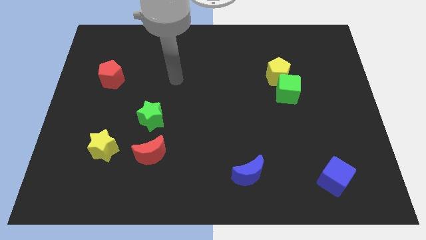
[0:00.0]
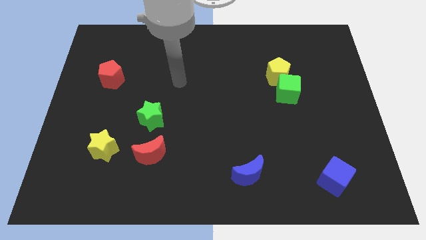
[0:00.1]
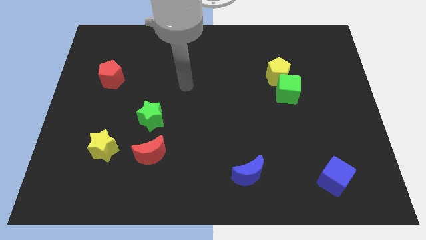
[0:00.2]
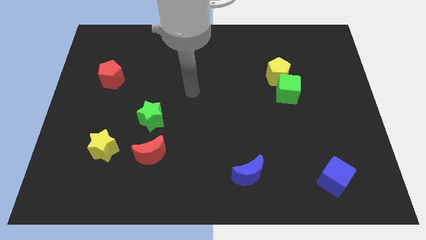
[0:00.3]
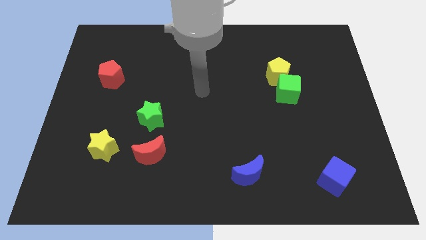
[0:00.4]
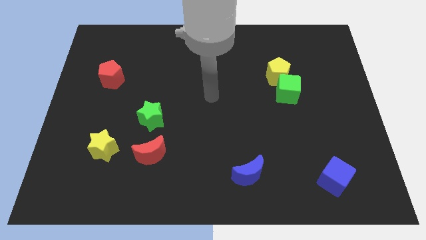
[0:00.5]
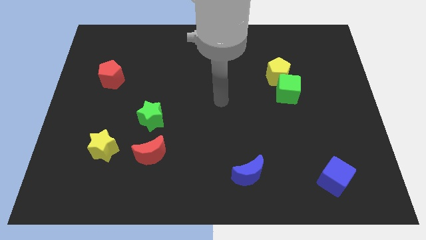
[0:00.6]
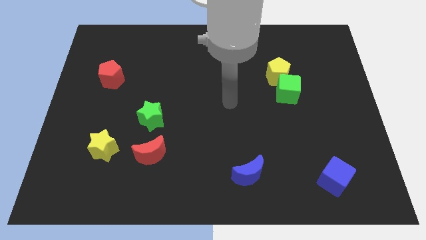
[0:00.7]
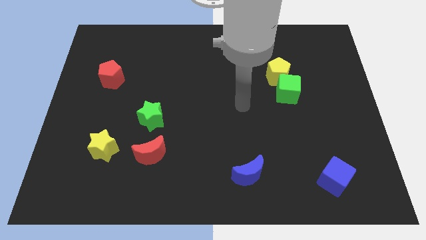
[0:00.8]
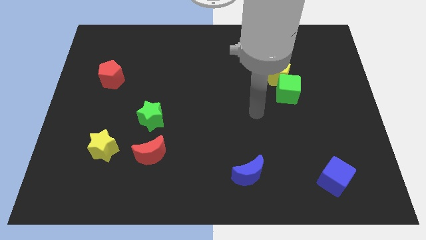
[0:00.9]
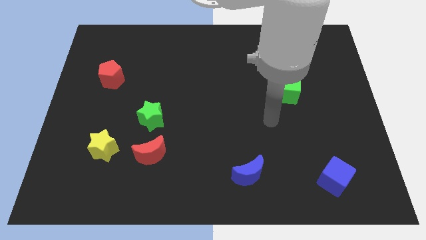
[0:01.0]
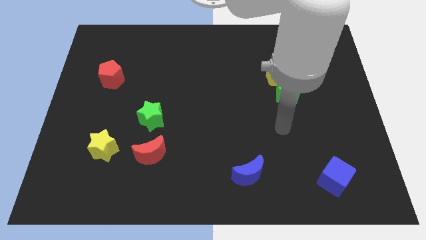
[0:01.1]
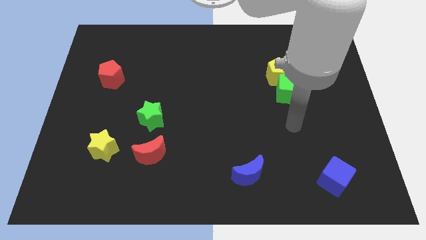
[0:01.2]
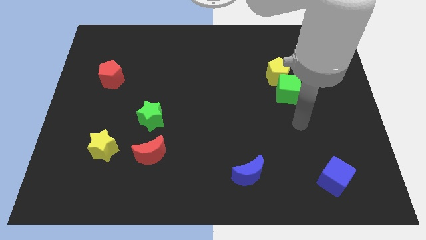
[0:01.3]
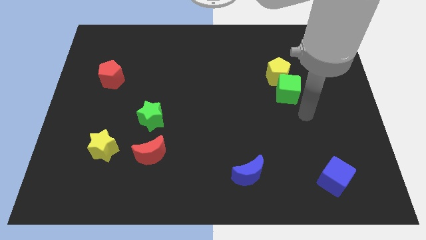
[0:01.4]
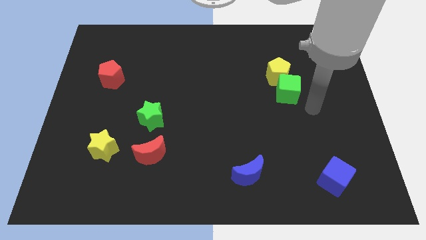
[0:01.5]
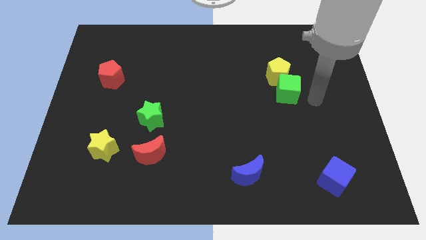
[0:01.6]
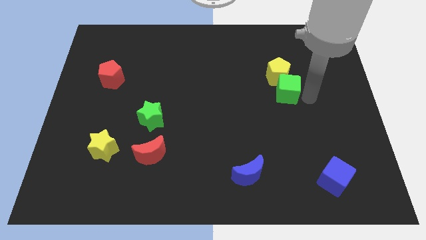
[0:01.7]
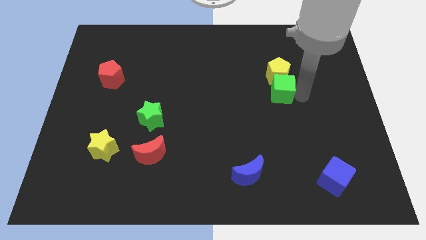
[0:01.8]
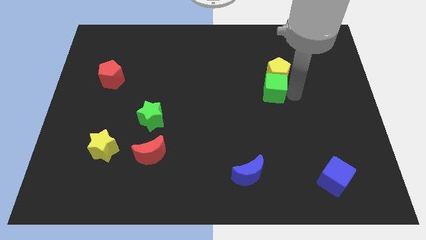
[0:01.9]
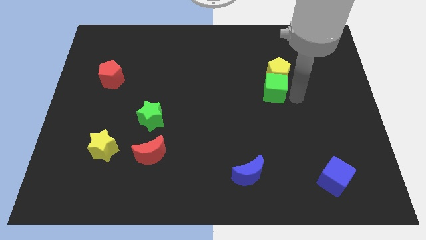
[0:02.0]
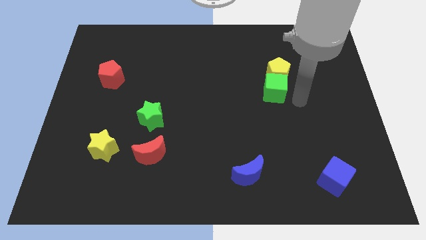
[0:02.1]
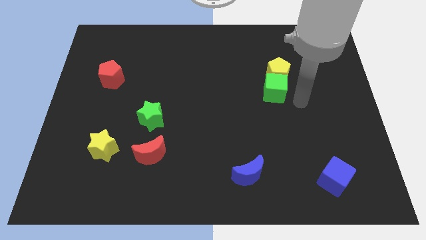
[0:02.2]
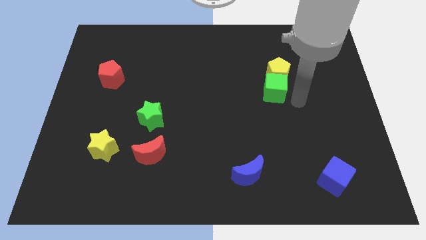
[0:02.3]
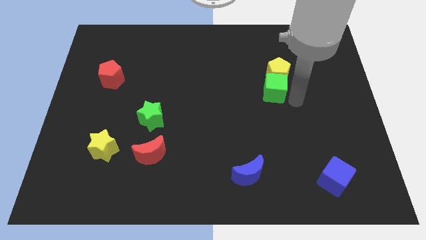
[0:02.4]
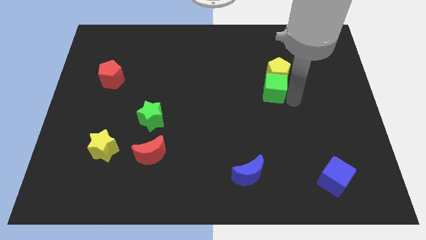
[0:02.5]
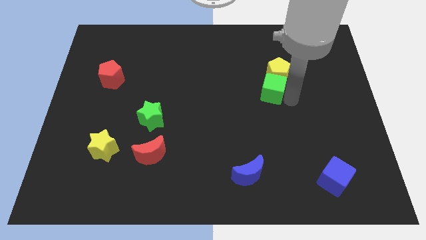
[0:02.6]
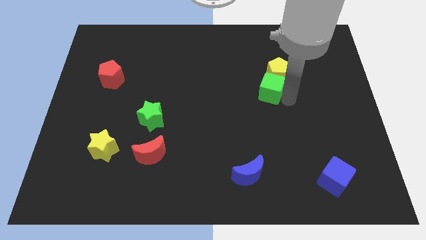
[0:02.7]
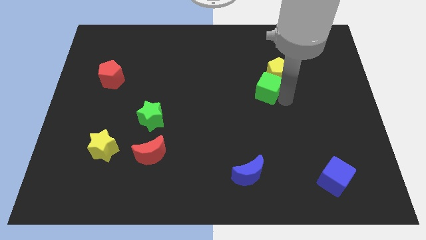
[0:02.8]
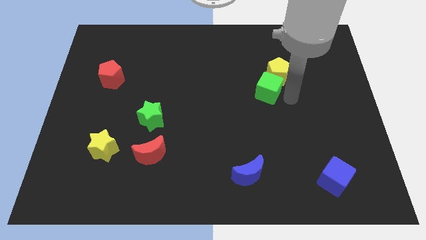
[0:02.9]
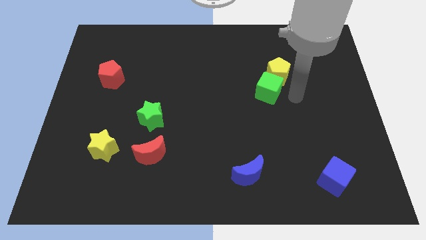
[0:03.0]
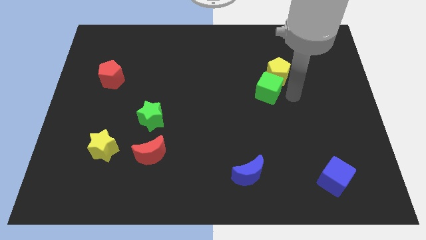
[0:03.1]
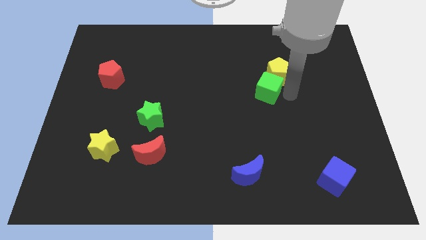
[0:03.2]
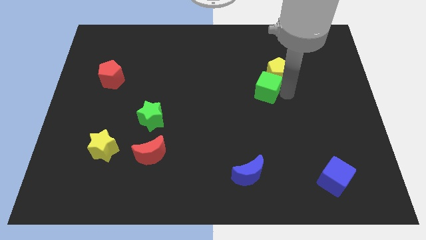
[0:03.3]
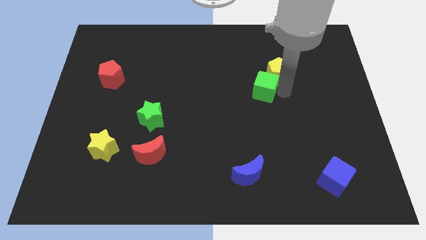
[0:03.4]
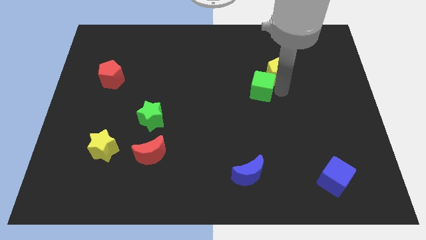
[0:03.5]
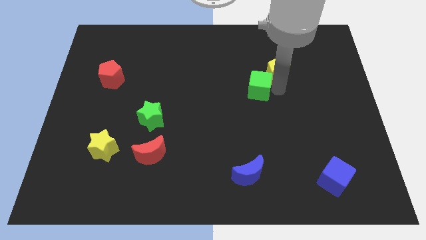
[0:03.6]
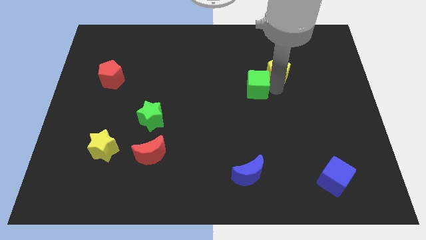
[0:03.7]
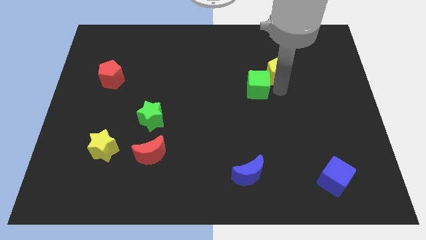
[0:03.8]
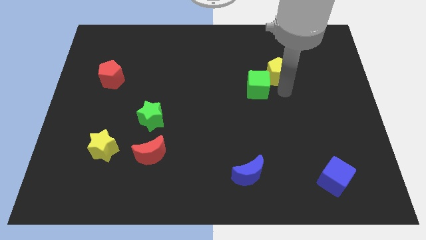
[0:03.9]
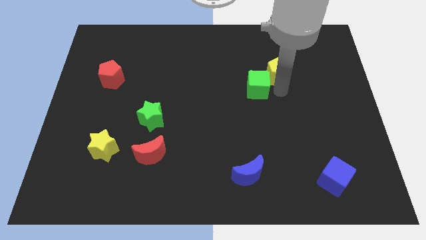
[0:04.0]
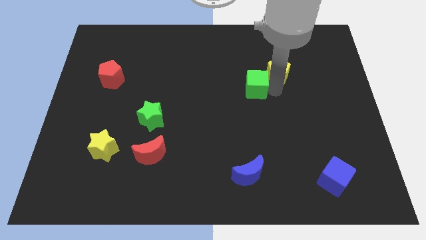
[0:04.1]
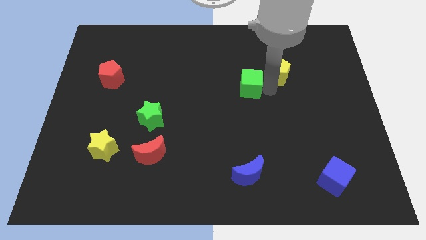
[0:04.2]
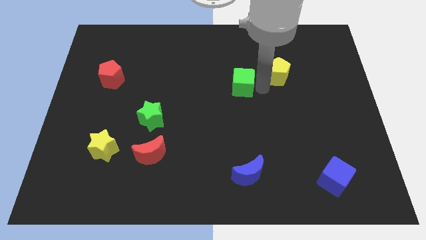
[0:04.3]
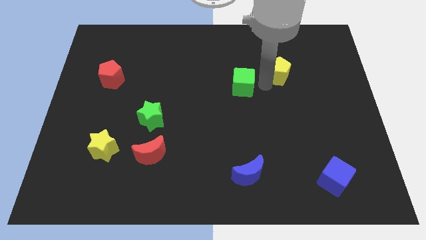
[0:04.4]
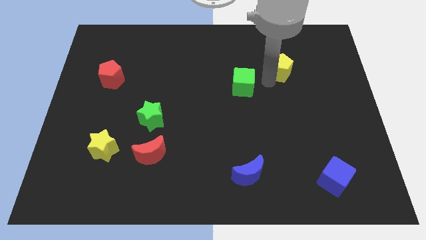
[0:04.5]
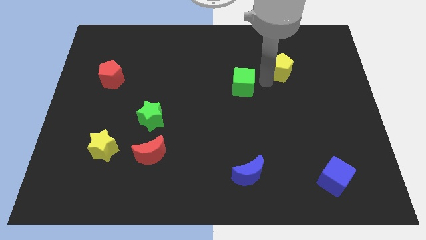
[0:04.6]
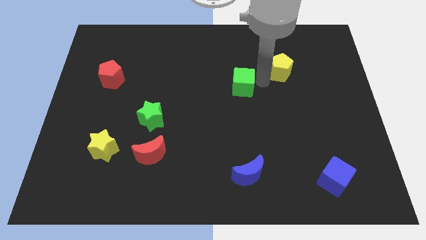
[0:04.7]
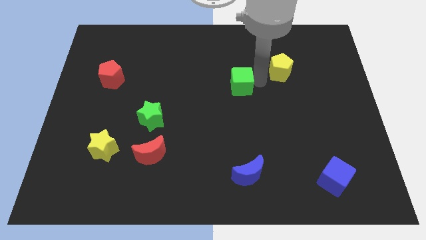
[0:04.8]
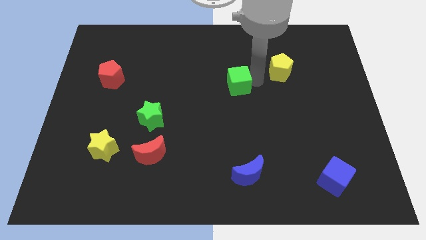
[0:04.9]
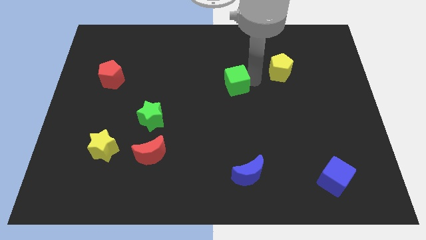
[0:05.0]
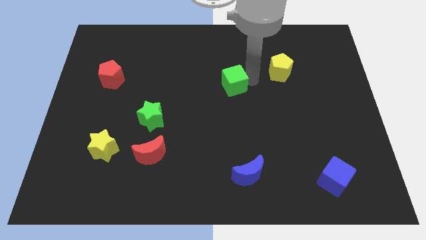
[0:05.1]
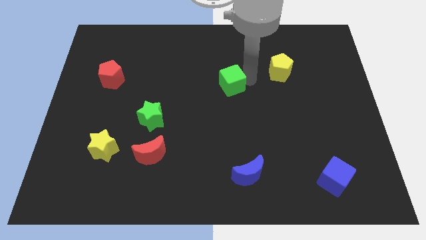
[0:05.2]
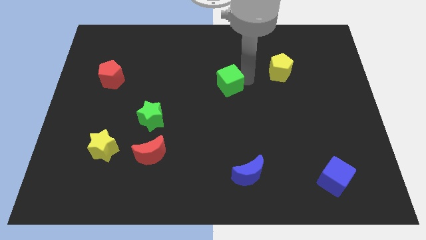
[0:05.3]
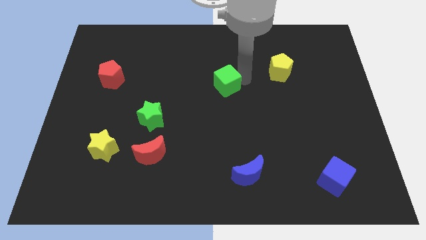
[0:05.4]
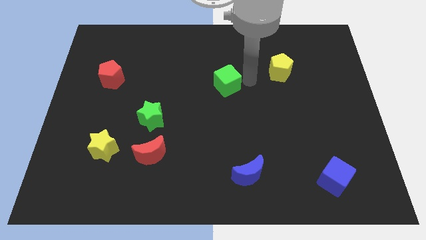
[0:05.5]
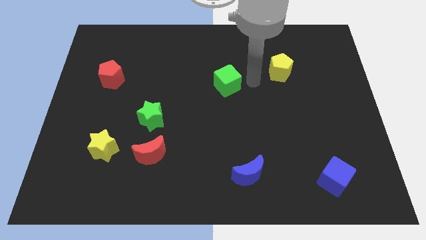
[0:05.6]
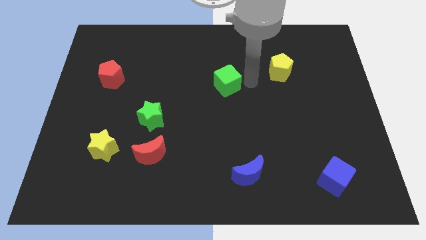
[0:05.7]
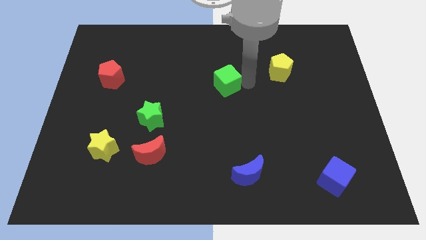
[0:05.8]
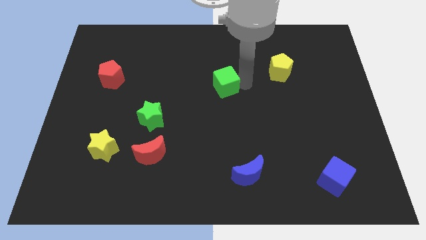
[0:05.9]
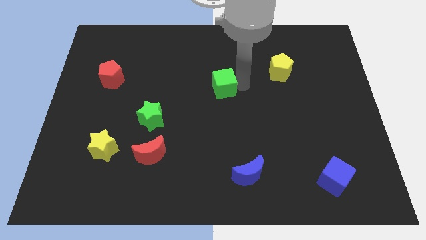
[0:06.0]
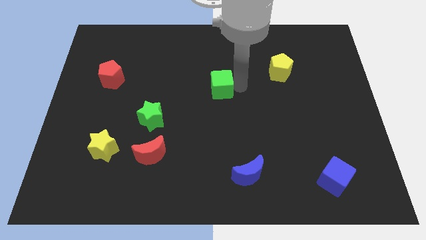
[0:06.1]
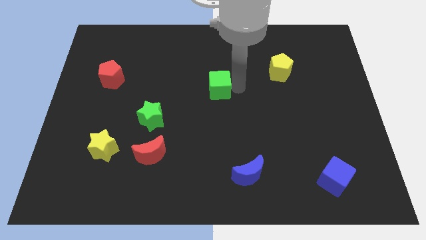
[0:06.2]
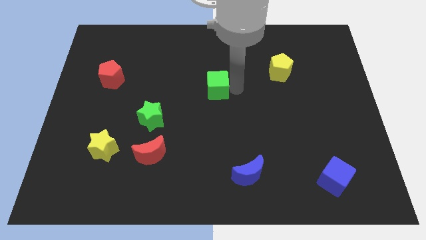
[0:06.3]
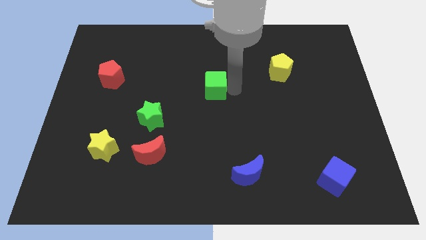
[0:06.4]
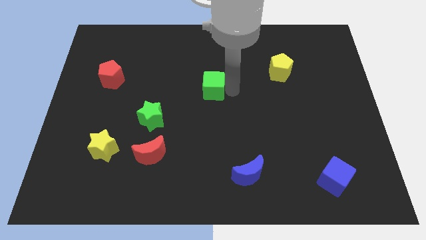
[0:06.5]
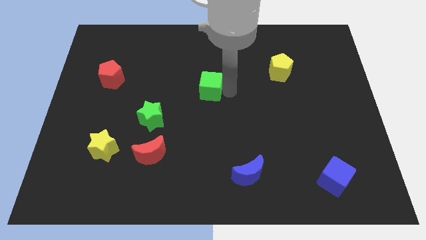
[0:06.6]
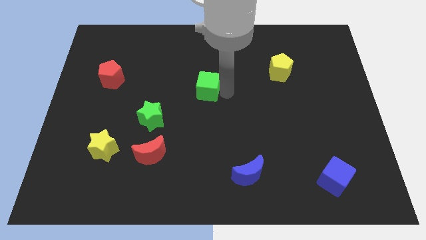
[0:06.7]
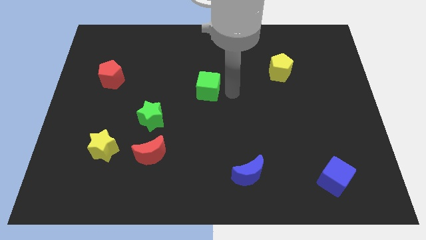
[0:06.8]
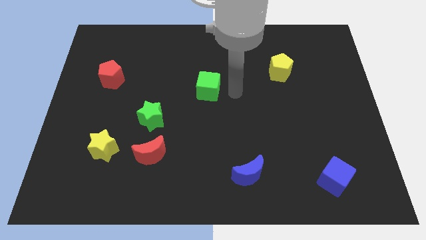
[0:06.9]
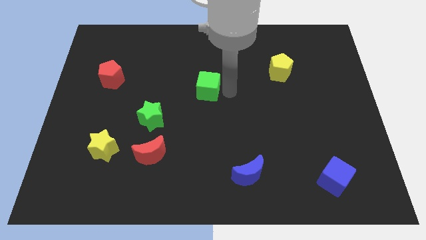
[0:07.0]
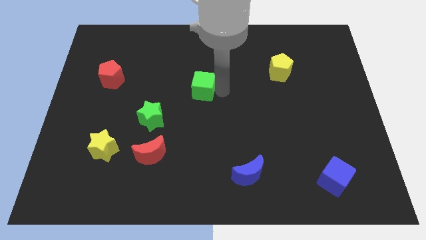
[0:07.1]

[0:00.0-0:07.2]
slide the green cube left

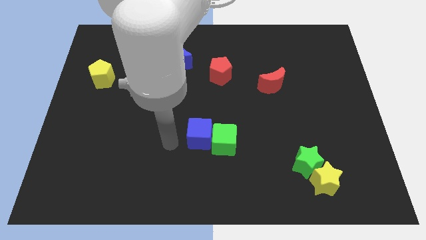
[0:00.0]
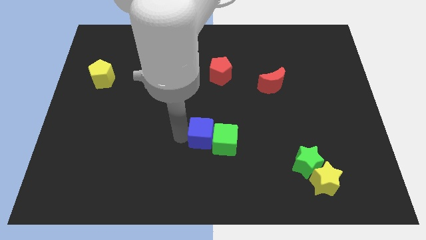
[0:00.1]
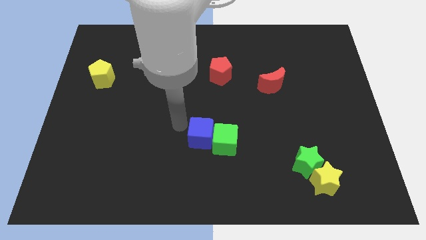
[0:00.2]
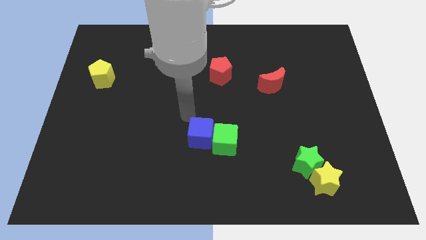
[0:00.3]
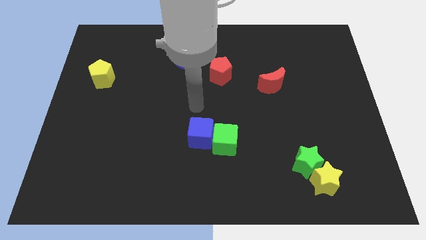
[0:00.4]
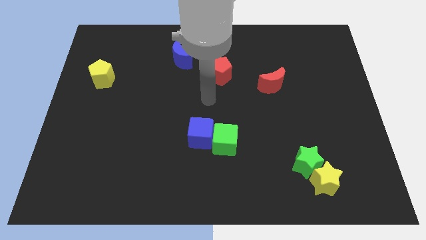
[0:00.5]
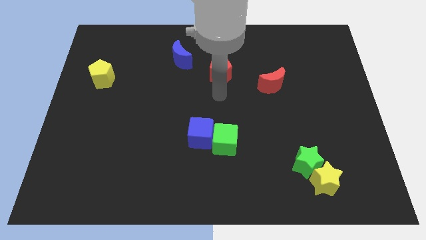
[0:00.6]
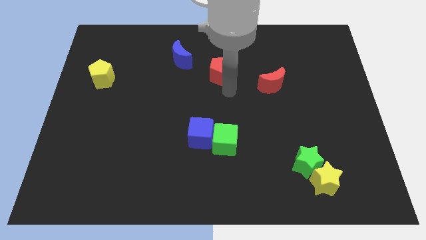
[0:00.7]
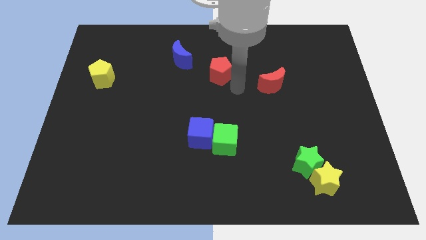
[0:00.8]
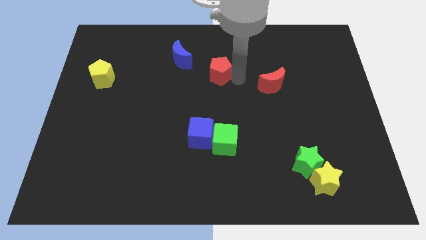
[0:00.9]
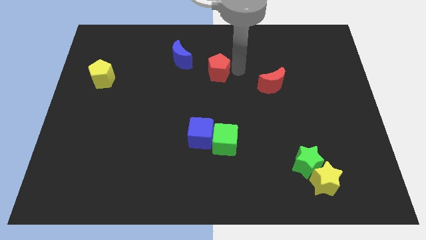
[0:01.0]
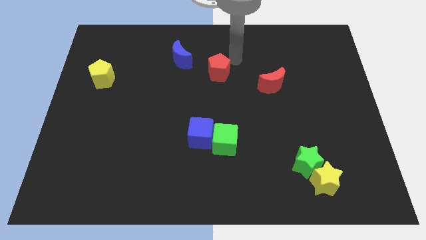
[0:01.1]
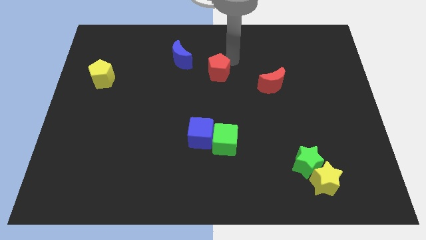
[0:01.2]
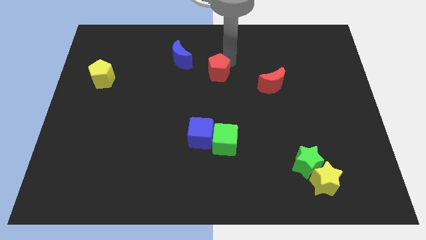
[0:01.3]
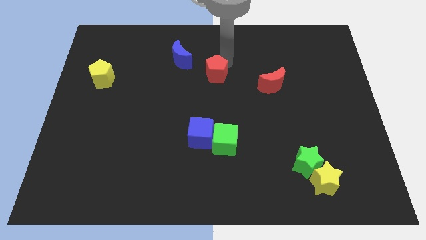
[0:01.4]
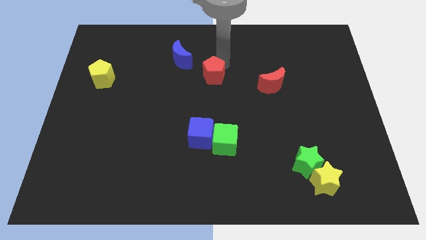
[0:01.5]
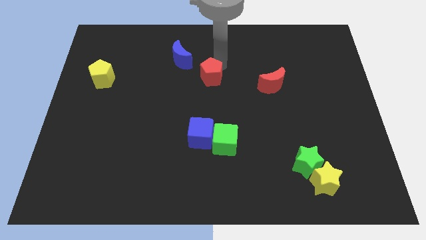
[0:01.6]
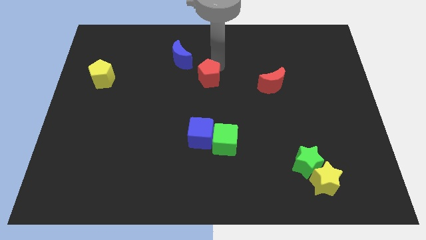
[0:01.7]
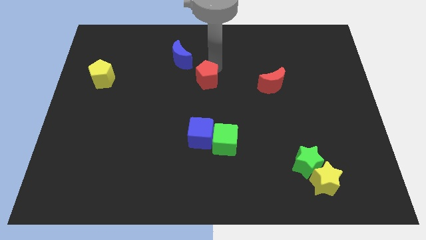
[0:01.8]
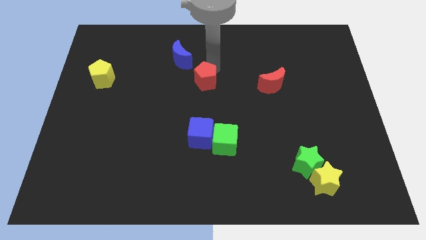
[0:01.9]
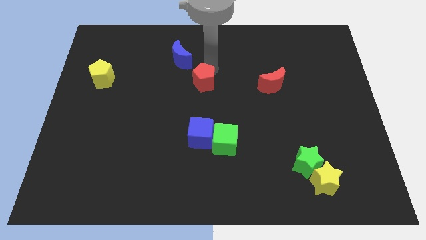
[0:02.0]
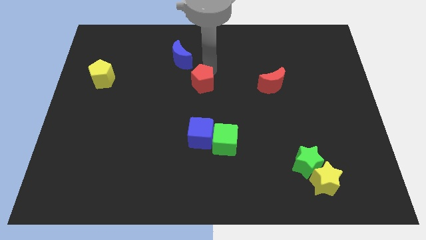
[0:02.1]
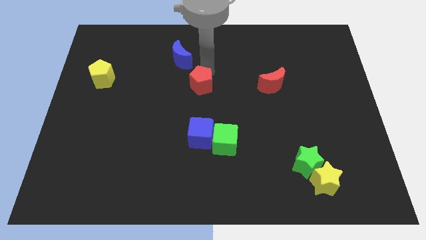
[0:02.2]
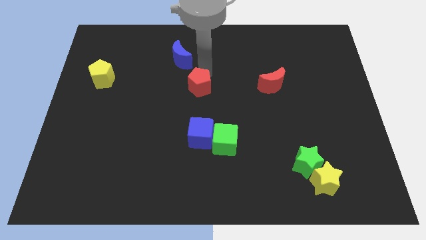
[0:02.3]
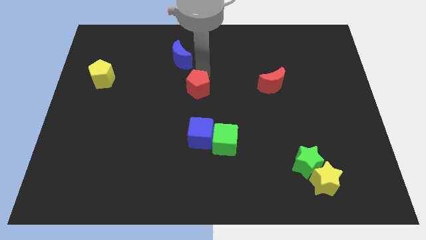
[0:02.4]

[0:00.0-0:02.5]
push the red pentagon diagonally downwards and to the left a little bit
